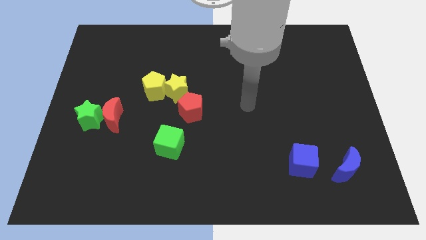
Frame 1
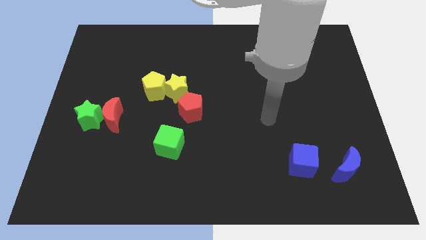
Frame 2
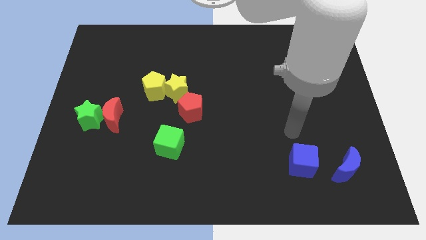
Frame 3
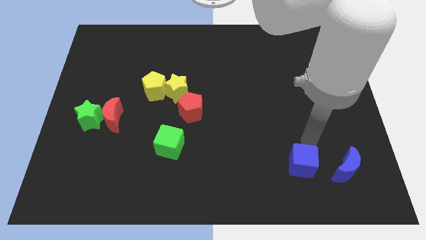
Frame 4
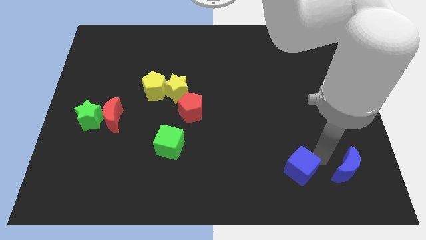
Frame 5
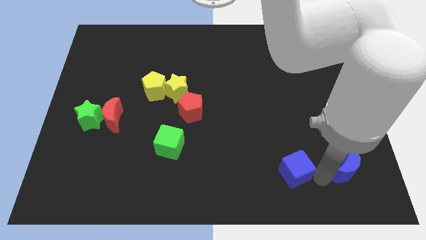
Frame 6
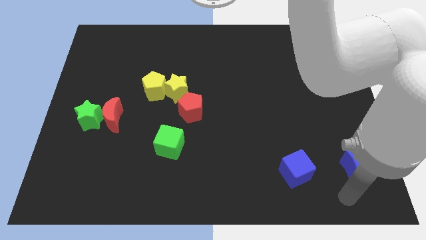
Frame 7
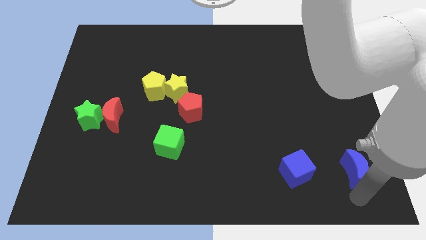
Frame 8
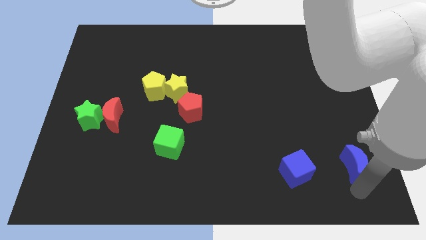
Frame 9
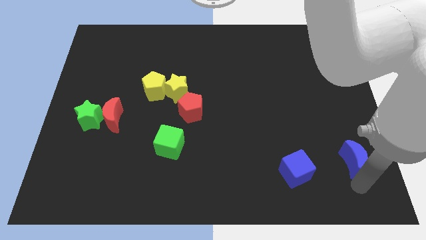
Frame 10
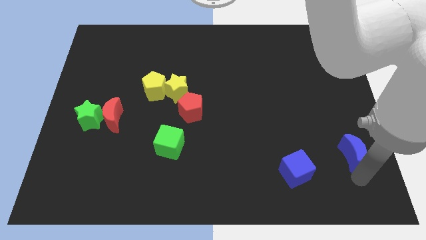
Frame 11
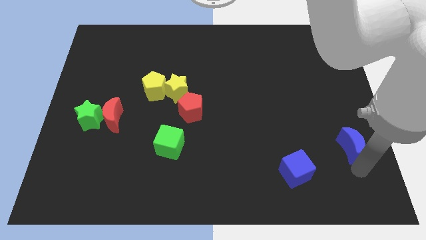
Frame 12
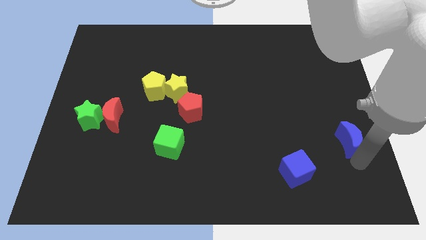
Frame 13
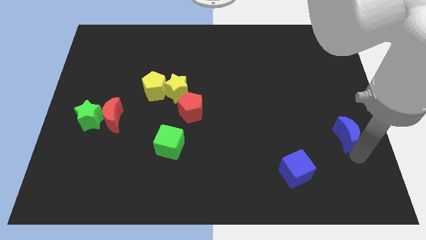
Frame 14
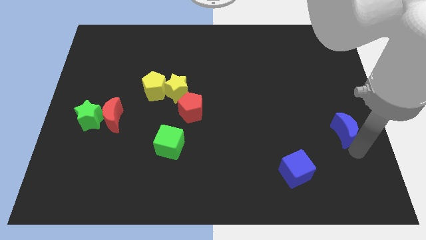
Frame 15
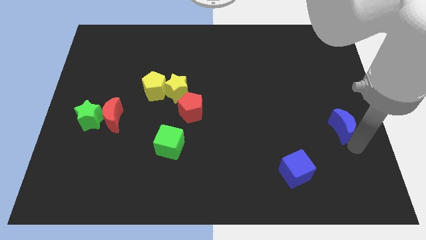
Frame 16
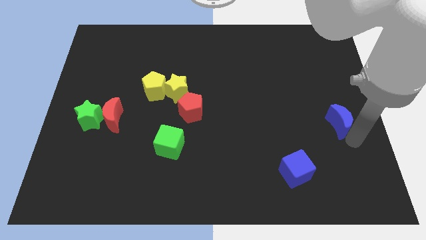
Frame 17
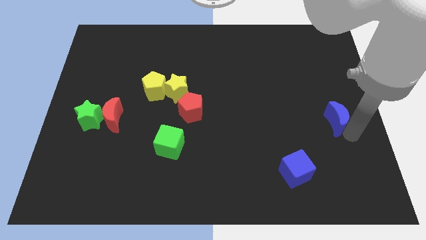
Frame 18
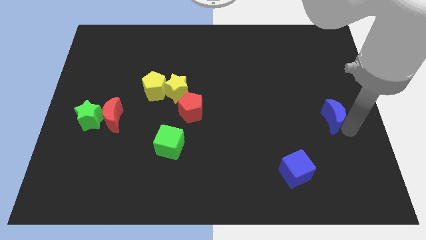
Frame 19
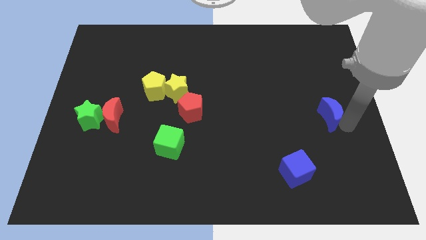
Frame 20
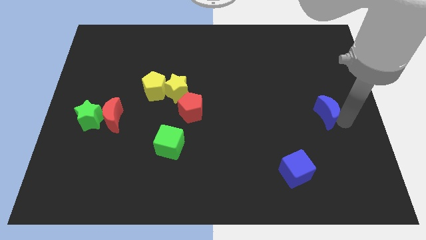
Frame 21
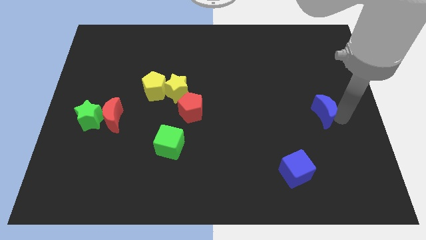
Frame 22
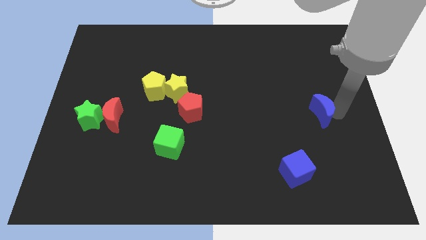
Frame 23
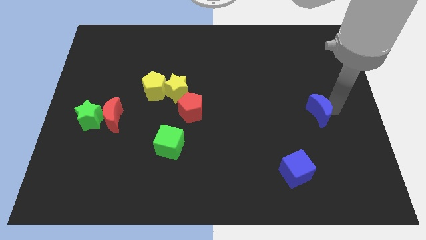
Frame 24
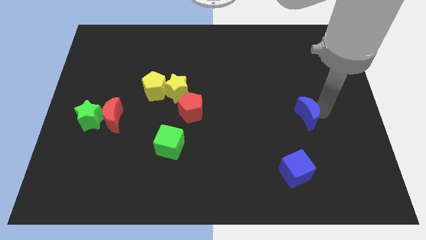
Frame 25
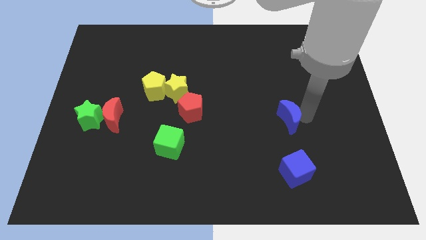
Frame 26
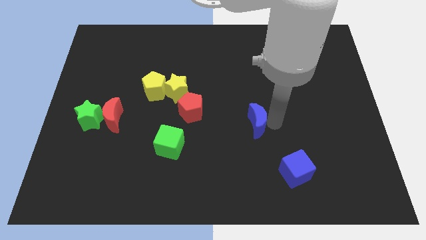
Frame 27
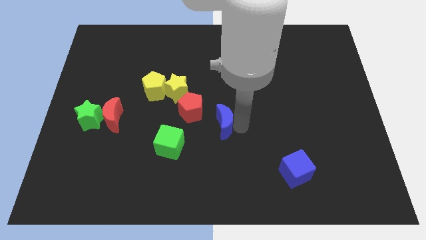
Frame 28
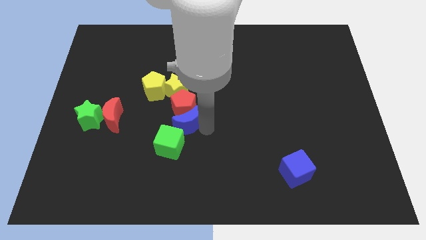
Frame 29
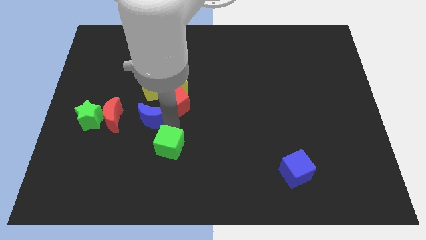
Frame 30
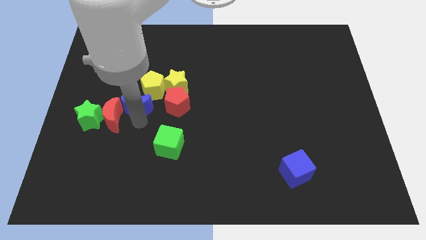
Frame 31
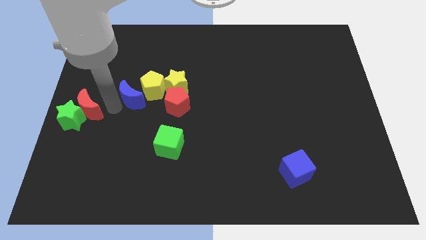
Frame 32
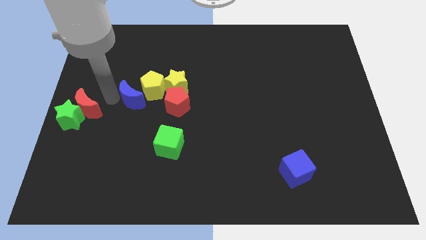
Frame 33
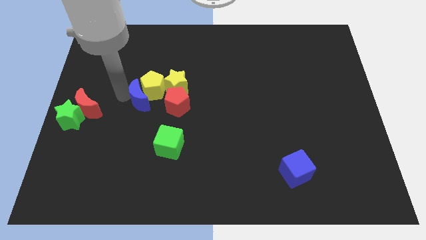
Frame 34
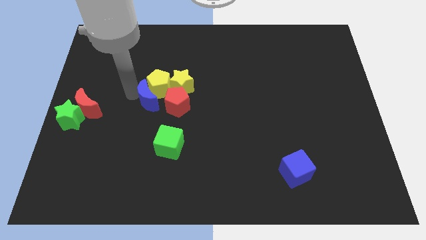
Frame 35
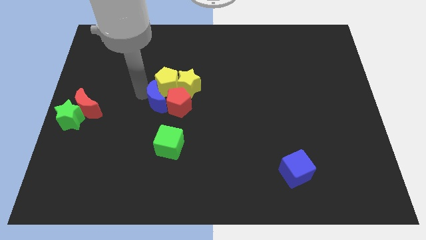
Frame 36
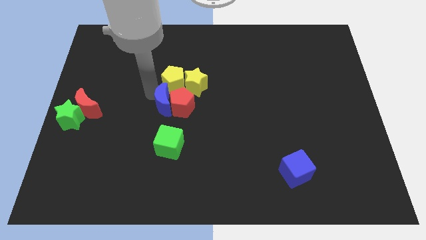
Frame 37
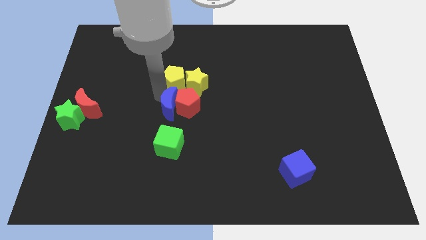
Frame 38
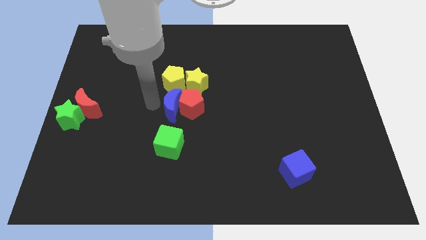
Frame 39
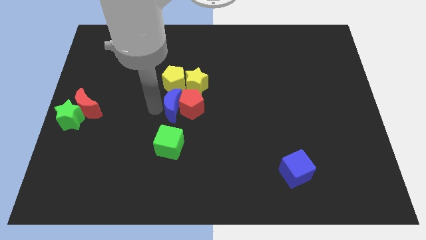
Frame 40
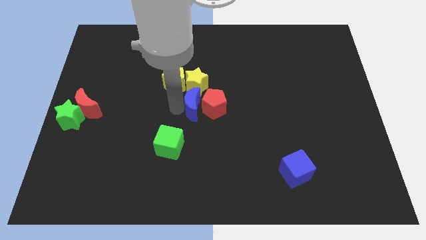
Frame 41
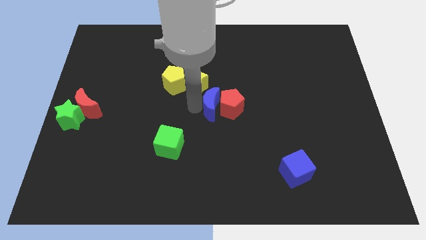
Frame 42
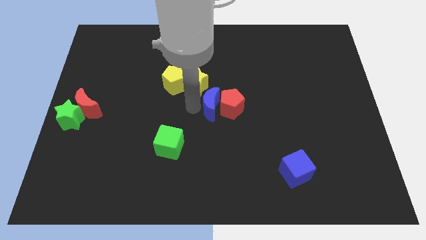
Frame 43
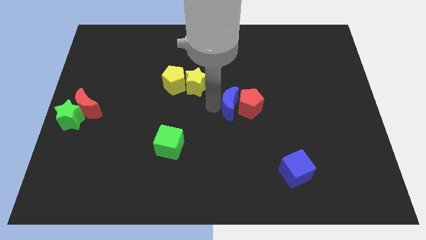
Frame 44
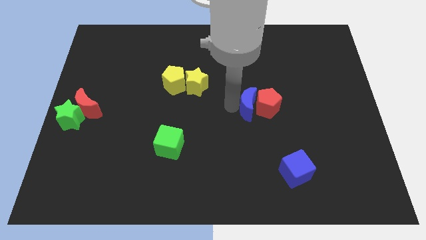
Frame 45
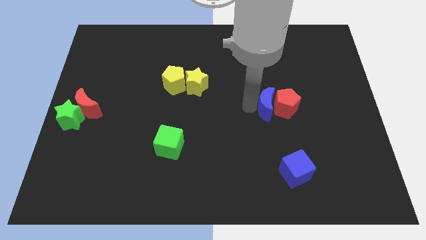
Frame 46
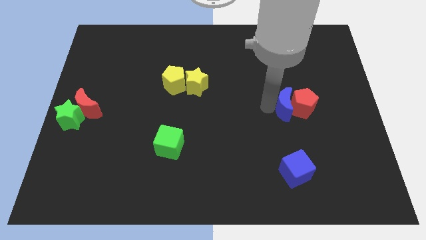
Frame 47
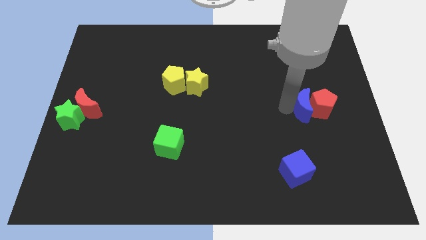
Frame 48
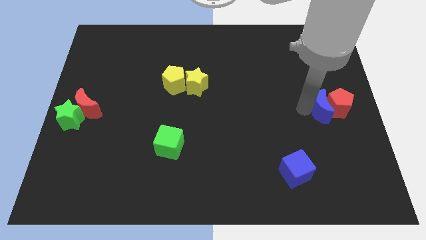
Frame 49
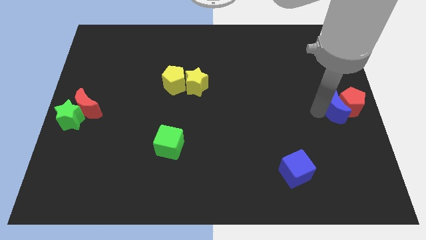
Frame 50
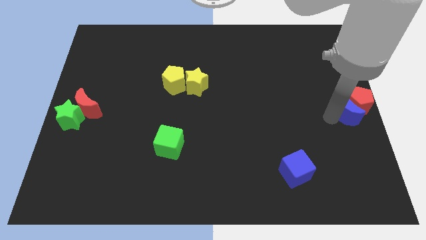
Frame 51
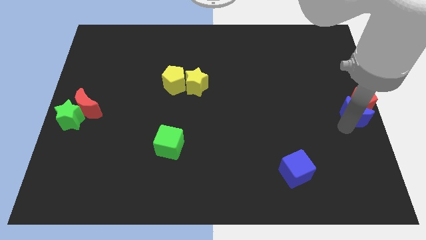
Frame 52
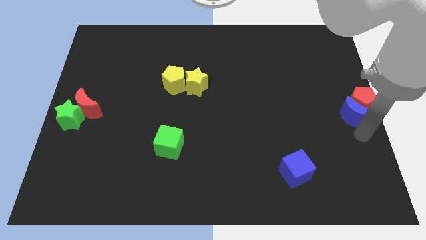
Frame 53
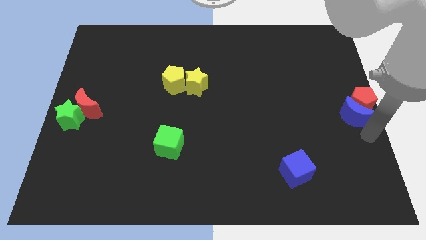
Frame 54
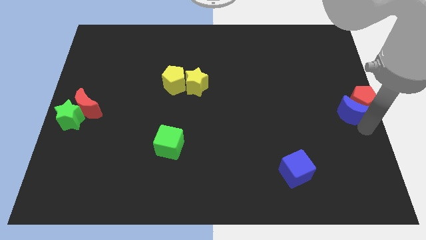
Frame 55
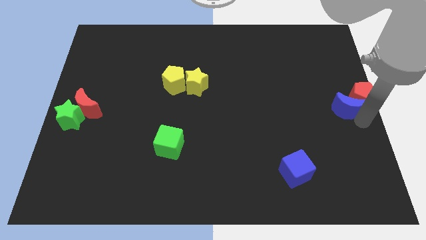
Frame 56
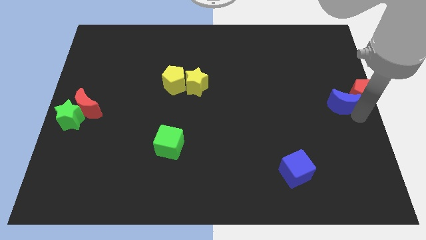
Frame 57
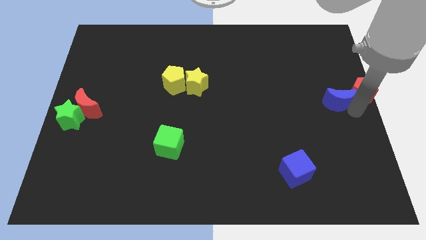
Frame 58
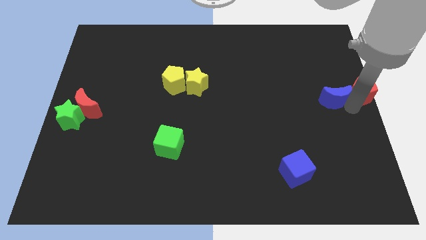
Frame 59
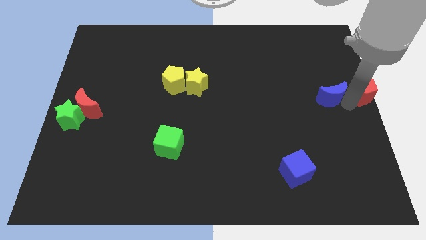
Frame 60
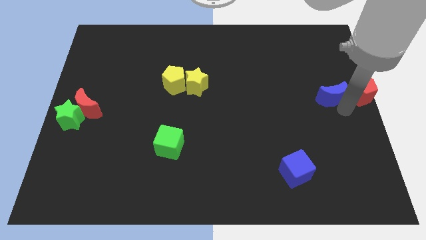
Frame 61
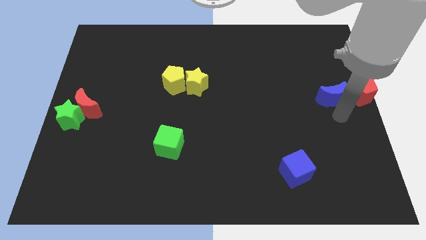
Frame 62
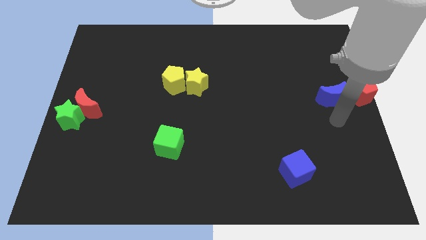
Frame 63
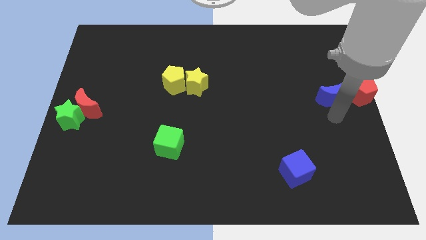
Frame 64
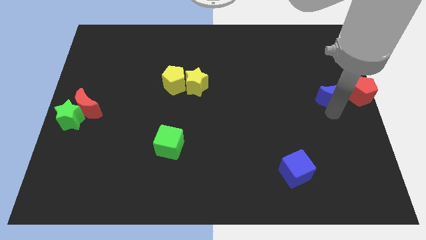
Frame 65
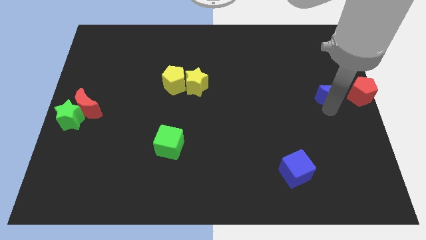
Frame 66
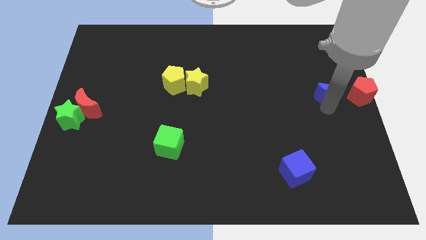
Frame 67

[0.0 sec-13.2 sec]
move the blue moon up

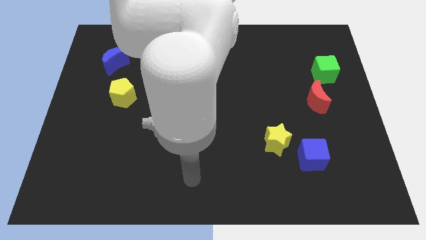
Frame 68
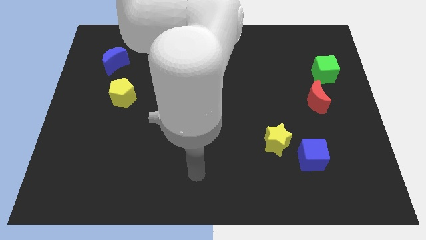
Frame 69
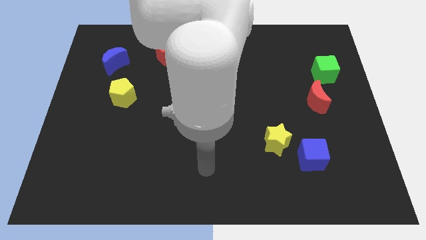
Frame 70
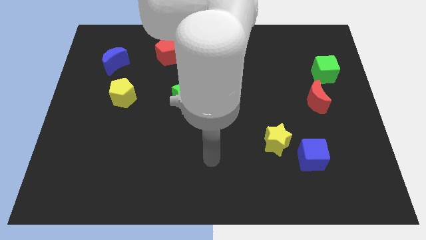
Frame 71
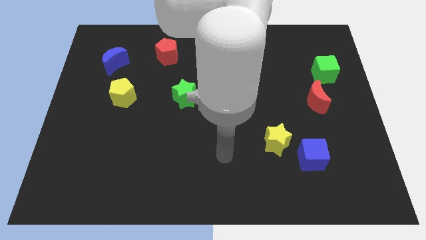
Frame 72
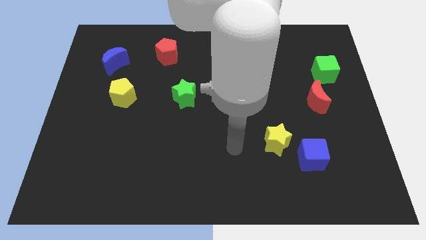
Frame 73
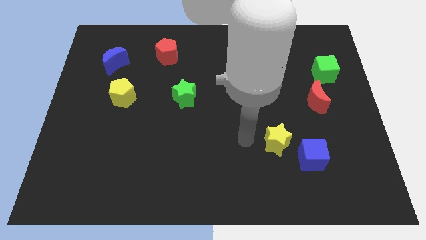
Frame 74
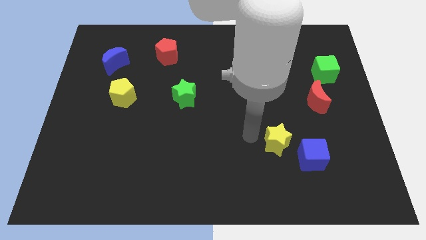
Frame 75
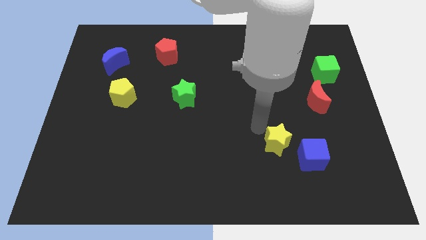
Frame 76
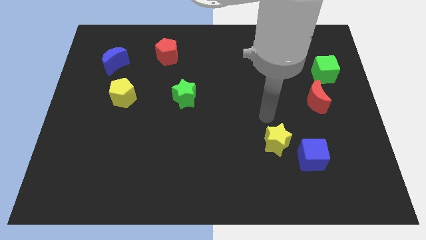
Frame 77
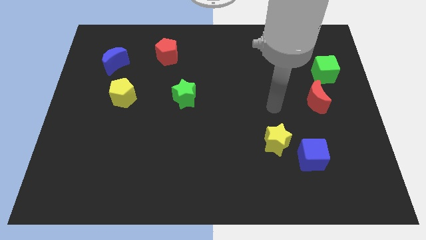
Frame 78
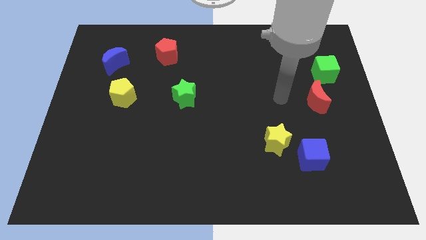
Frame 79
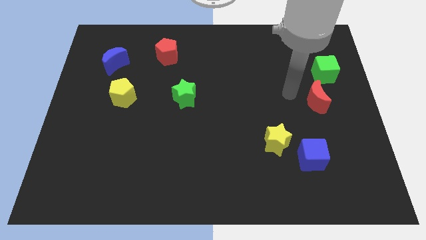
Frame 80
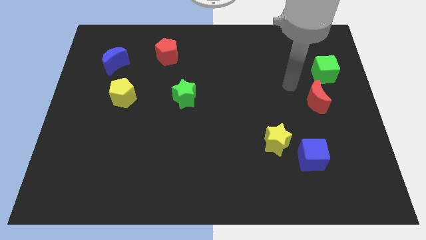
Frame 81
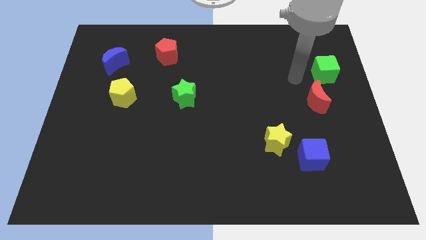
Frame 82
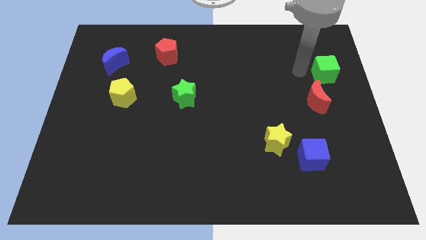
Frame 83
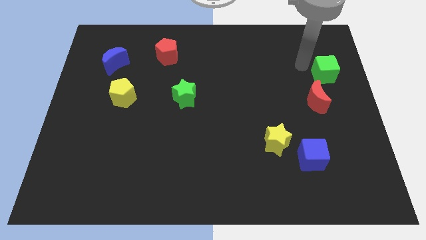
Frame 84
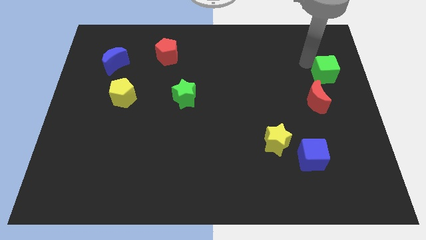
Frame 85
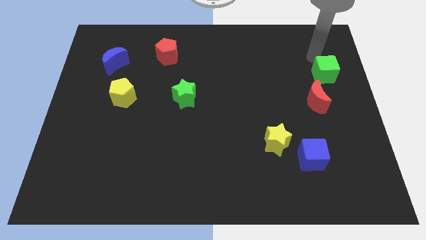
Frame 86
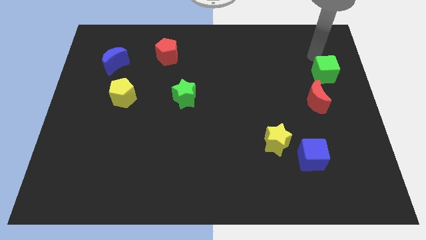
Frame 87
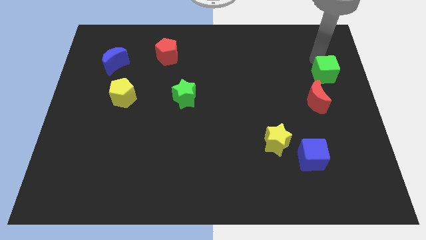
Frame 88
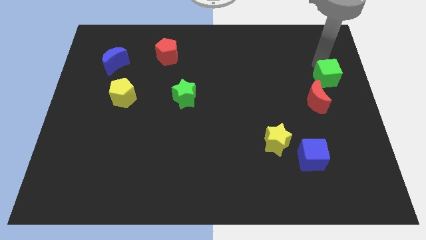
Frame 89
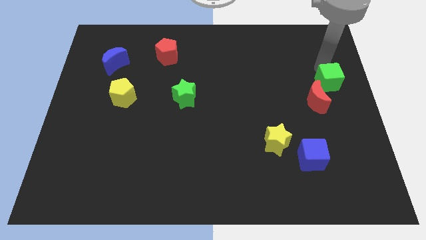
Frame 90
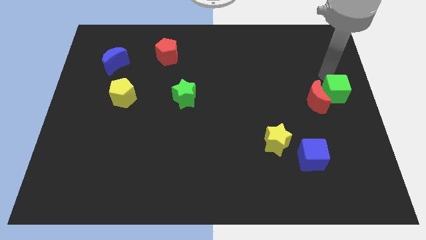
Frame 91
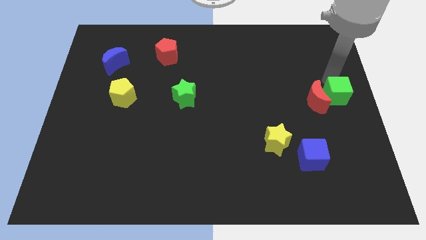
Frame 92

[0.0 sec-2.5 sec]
slide the green cube a bit down
